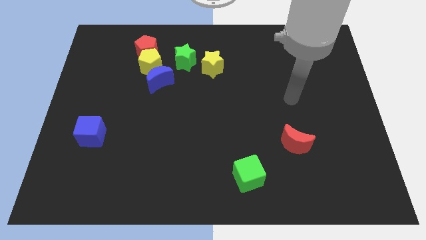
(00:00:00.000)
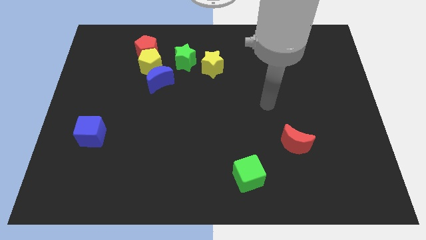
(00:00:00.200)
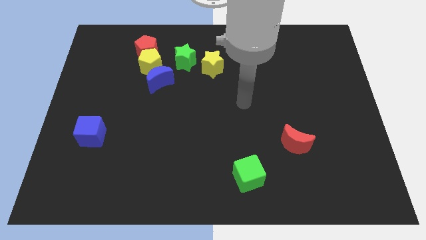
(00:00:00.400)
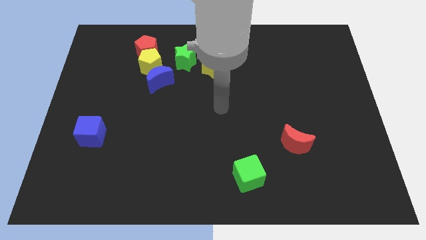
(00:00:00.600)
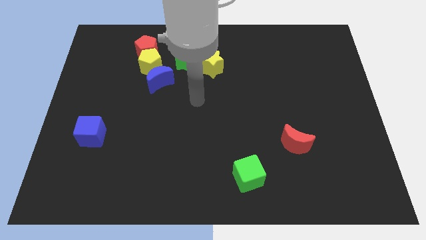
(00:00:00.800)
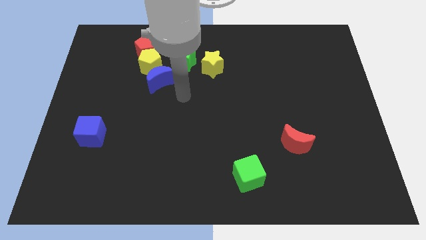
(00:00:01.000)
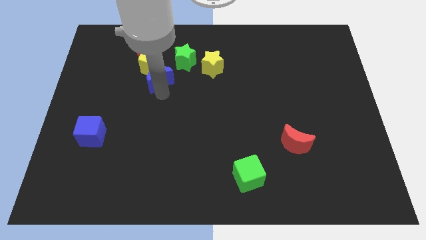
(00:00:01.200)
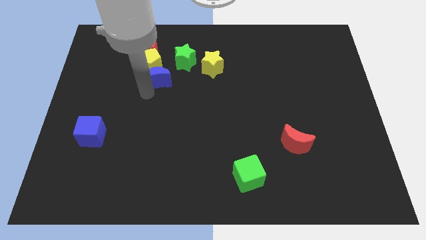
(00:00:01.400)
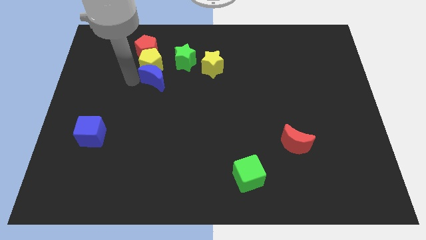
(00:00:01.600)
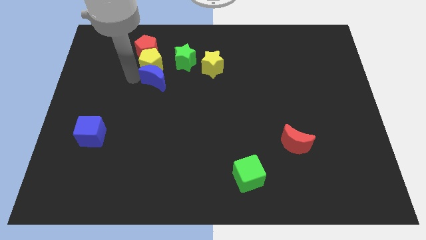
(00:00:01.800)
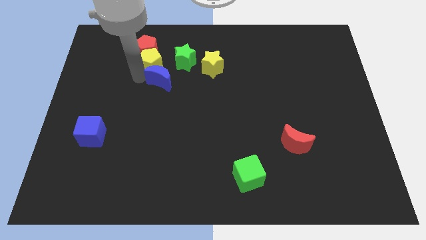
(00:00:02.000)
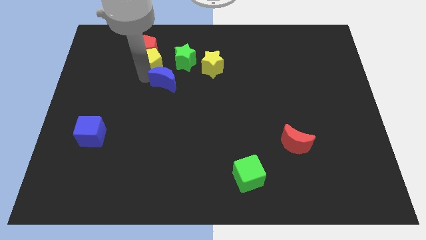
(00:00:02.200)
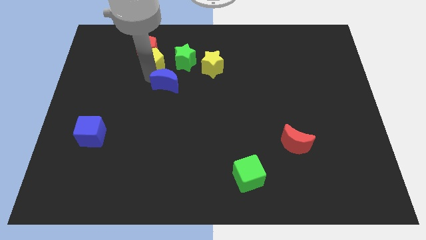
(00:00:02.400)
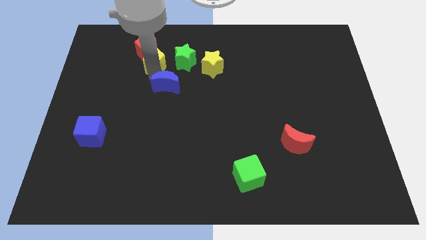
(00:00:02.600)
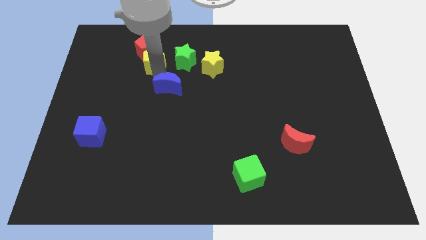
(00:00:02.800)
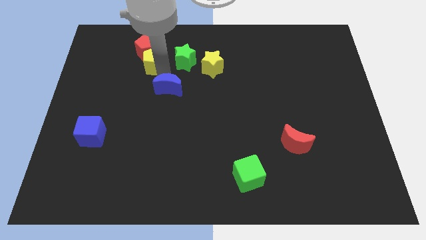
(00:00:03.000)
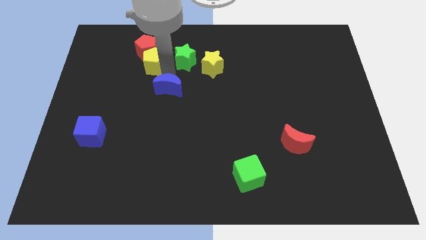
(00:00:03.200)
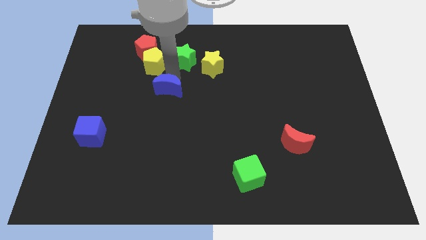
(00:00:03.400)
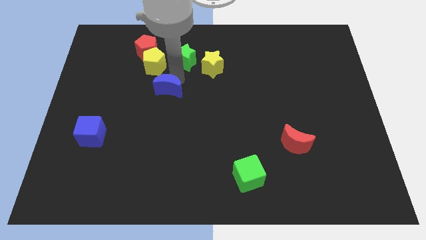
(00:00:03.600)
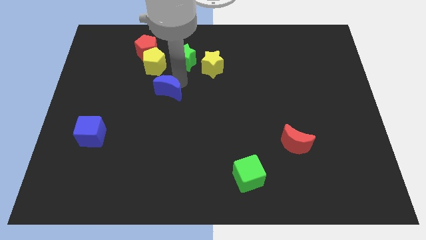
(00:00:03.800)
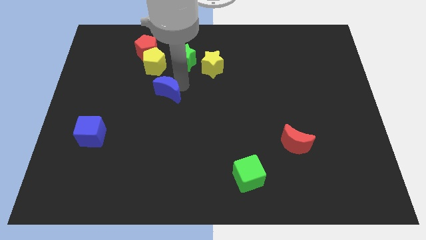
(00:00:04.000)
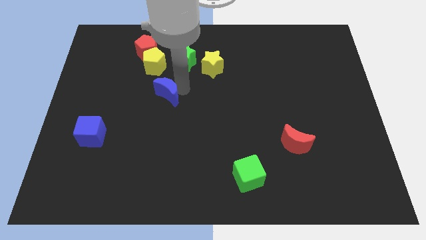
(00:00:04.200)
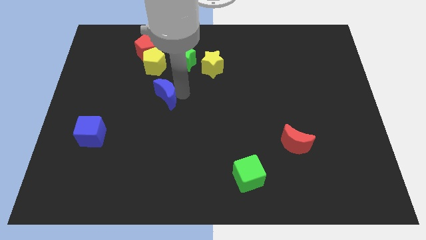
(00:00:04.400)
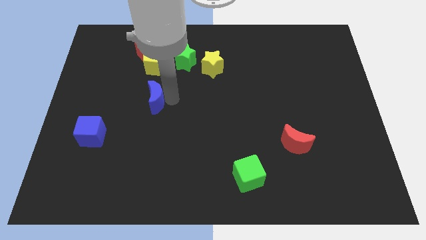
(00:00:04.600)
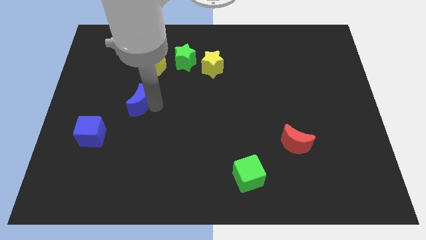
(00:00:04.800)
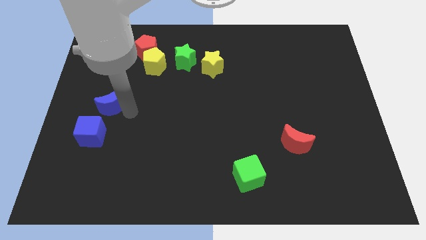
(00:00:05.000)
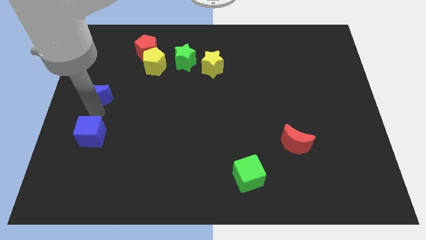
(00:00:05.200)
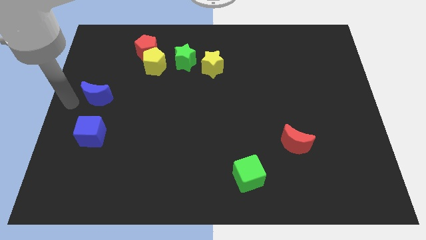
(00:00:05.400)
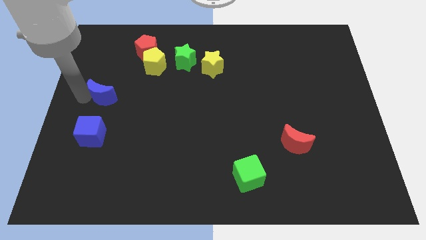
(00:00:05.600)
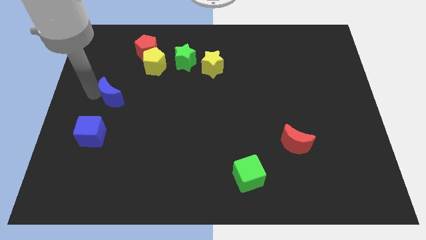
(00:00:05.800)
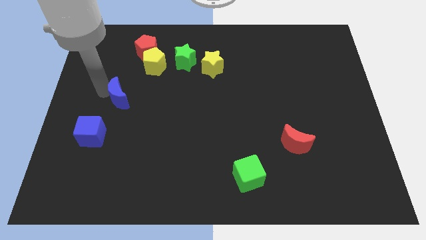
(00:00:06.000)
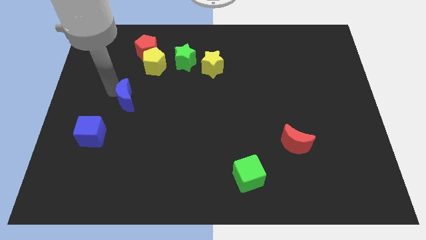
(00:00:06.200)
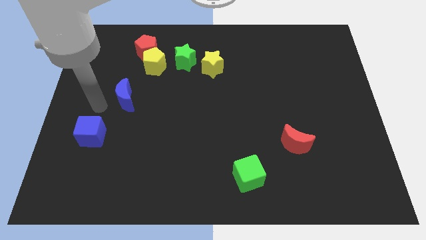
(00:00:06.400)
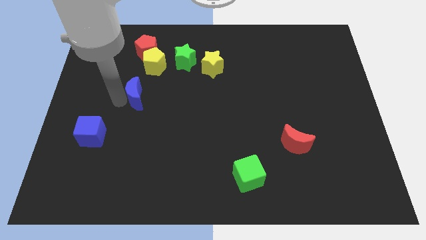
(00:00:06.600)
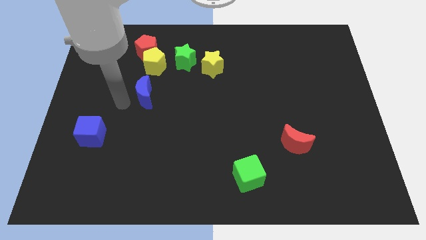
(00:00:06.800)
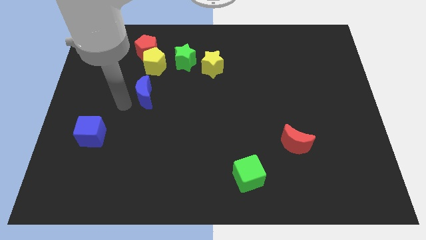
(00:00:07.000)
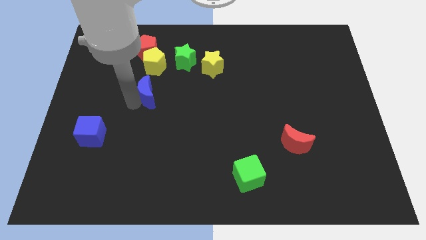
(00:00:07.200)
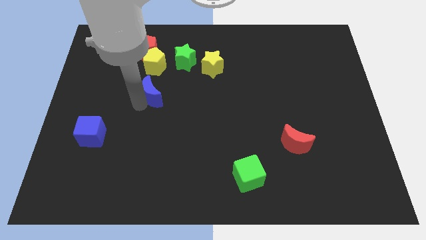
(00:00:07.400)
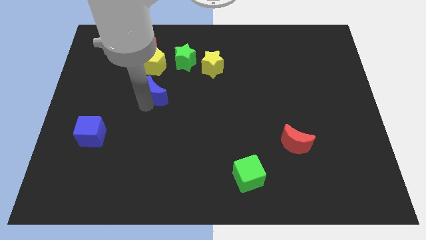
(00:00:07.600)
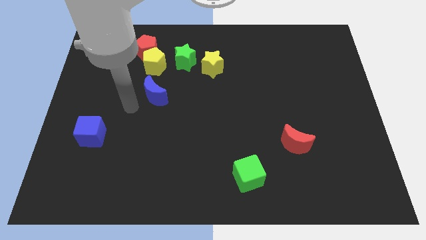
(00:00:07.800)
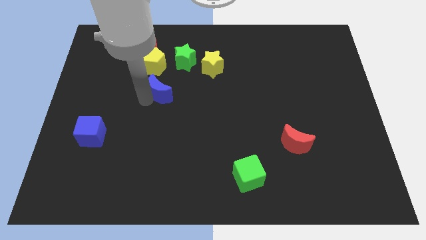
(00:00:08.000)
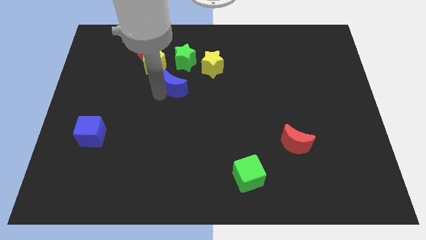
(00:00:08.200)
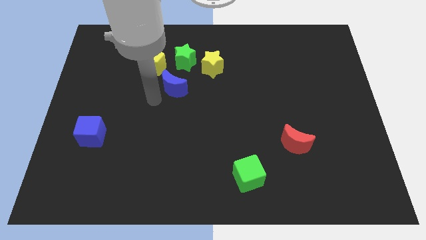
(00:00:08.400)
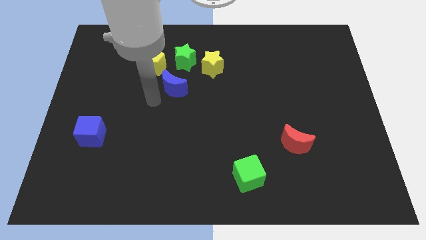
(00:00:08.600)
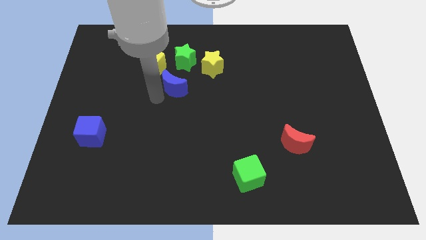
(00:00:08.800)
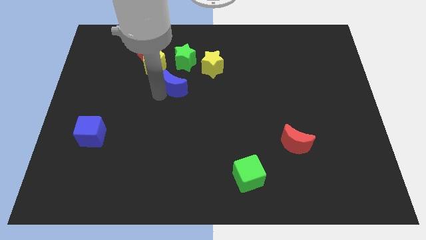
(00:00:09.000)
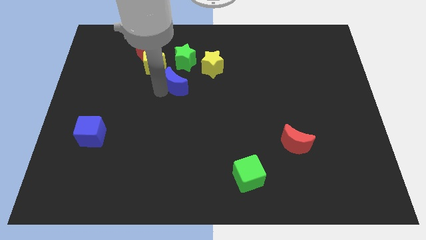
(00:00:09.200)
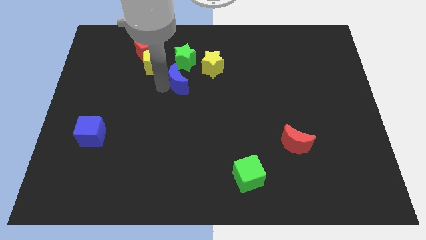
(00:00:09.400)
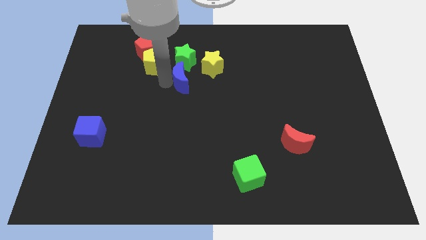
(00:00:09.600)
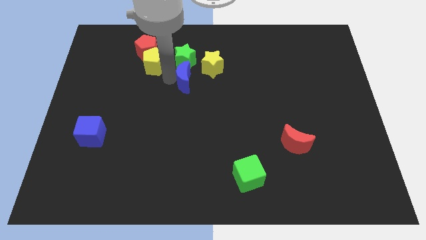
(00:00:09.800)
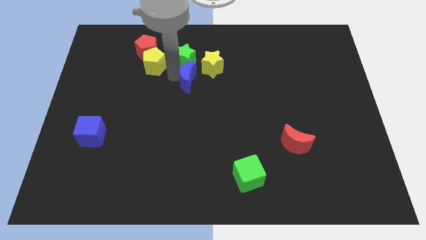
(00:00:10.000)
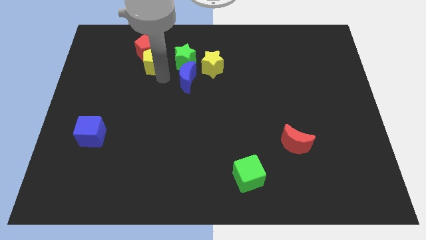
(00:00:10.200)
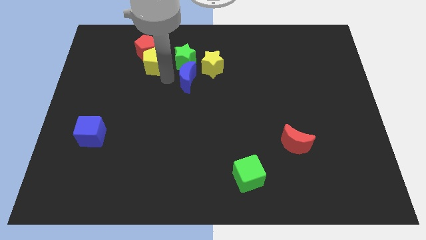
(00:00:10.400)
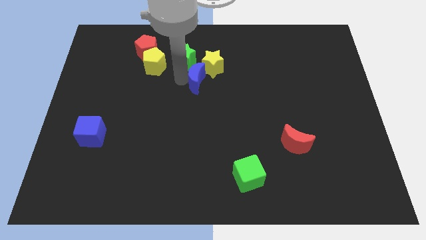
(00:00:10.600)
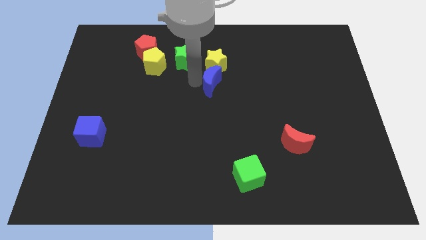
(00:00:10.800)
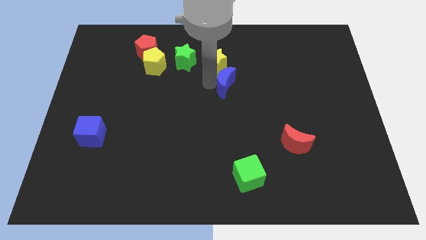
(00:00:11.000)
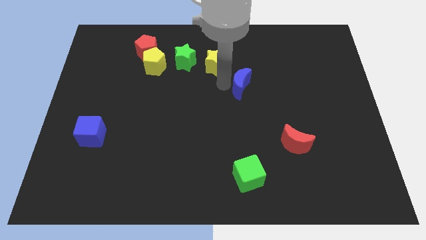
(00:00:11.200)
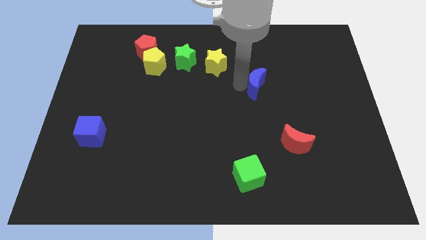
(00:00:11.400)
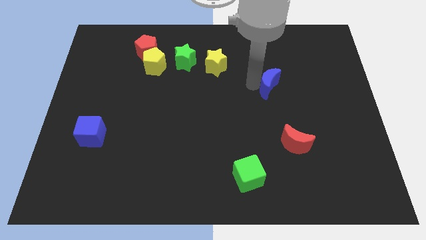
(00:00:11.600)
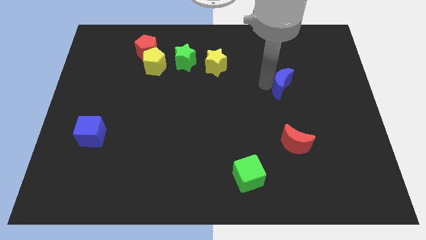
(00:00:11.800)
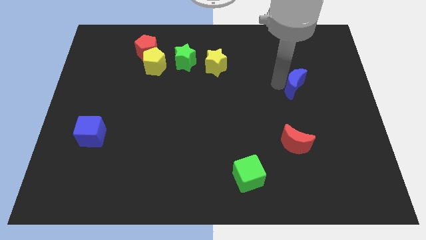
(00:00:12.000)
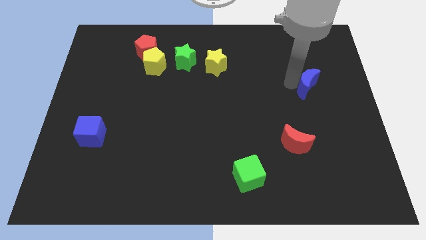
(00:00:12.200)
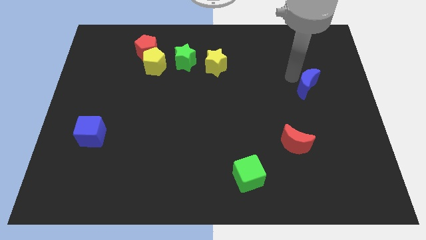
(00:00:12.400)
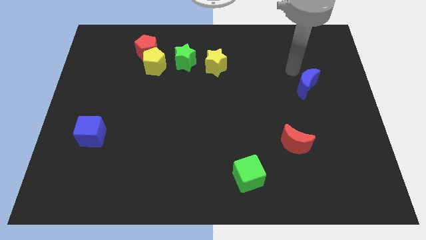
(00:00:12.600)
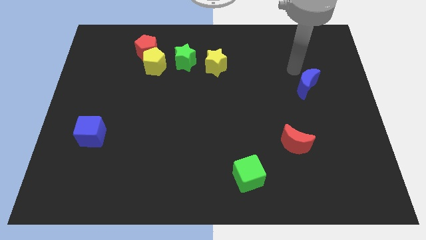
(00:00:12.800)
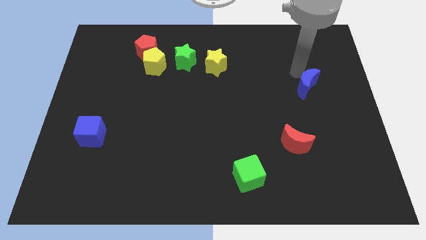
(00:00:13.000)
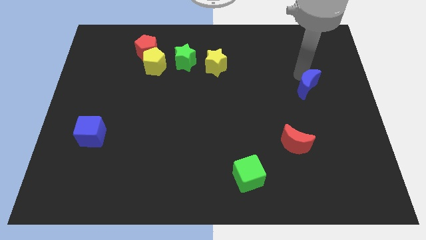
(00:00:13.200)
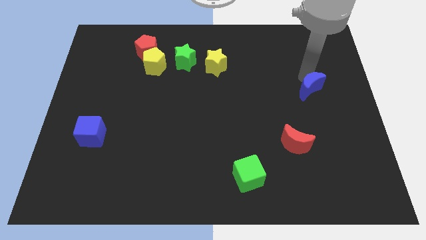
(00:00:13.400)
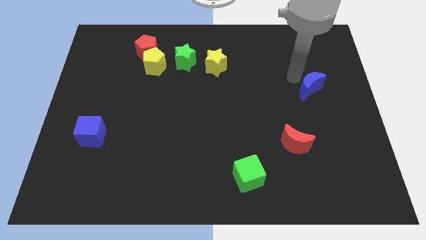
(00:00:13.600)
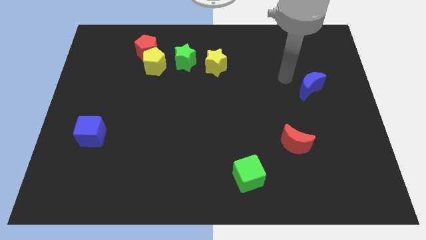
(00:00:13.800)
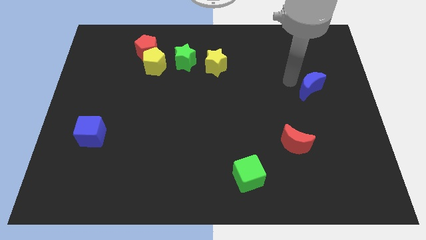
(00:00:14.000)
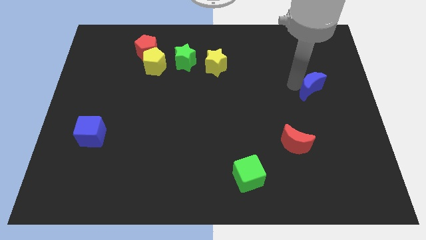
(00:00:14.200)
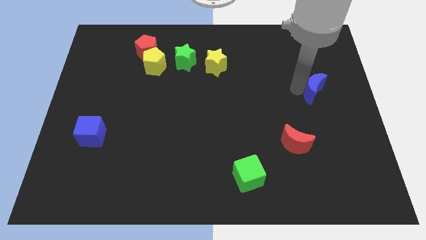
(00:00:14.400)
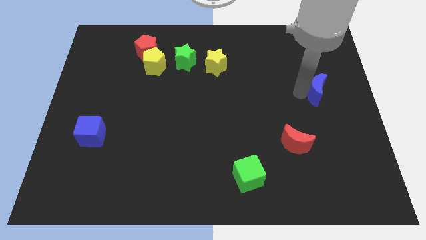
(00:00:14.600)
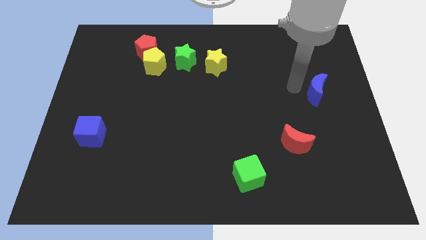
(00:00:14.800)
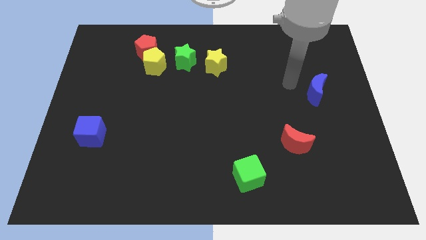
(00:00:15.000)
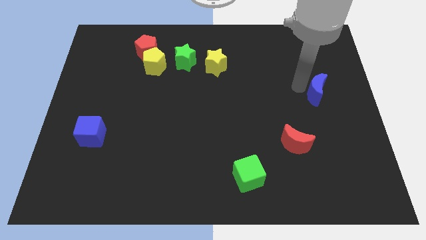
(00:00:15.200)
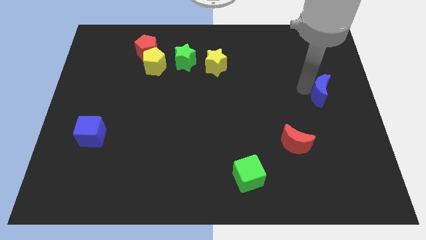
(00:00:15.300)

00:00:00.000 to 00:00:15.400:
move the blue moon to the right side of the board
